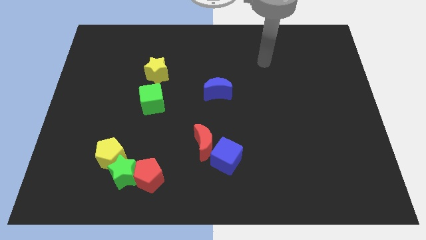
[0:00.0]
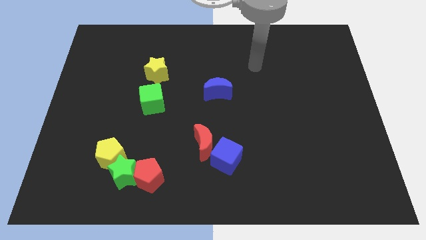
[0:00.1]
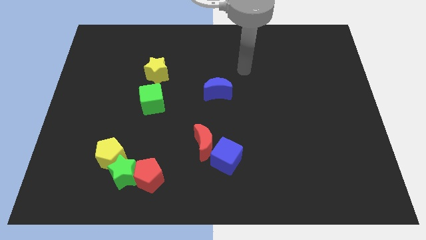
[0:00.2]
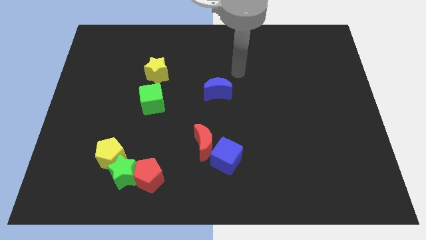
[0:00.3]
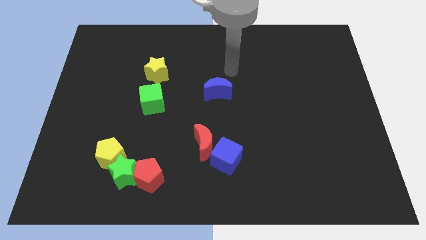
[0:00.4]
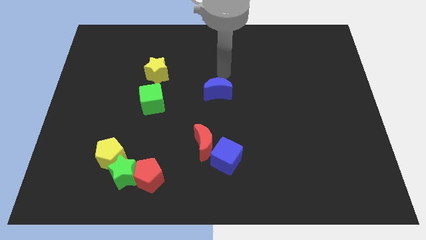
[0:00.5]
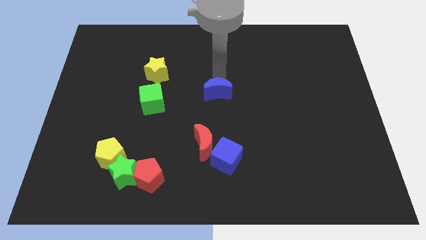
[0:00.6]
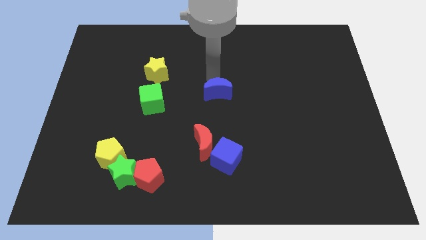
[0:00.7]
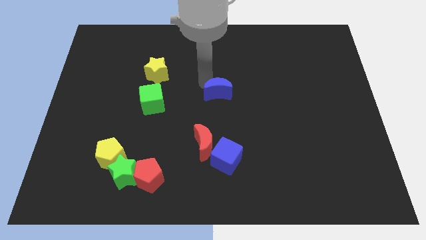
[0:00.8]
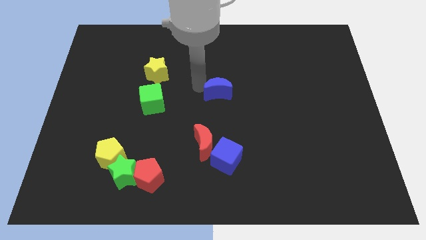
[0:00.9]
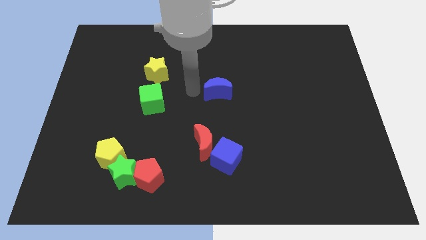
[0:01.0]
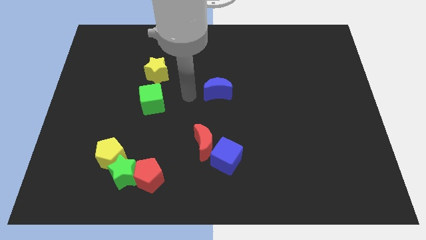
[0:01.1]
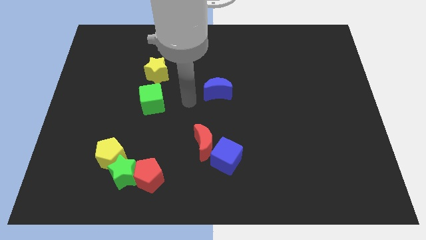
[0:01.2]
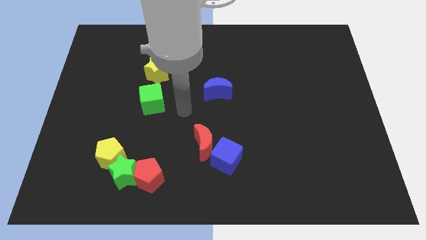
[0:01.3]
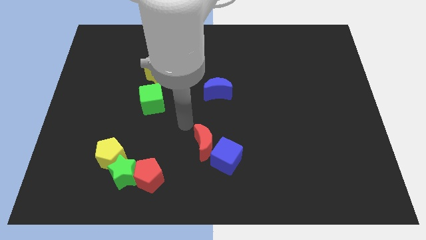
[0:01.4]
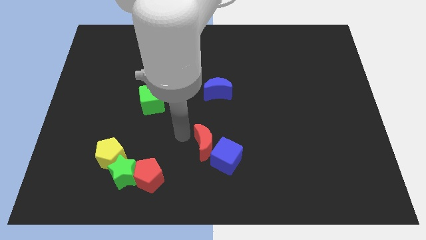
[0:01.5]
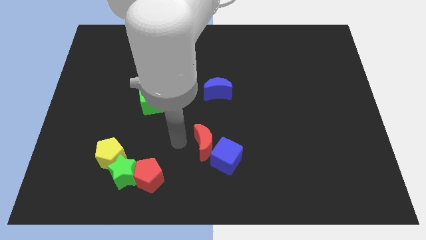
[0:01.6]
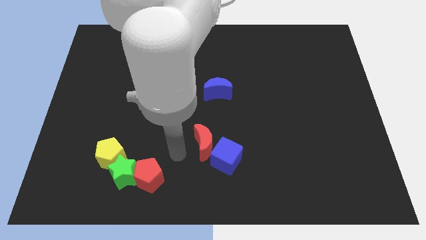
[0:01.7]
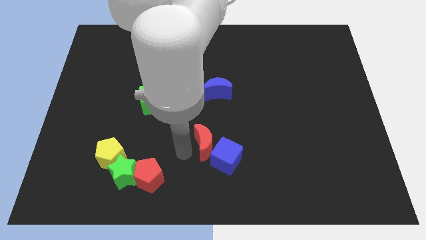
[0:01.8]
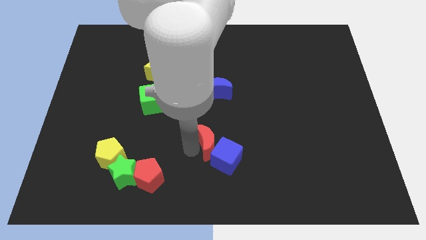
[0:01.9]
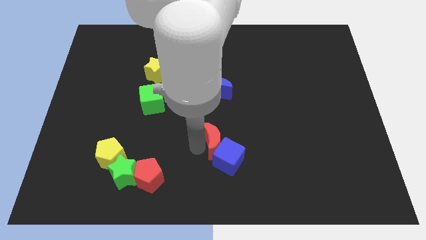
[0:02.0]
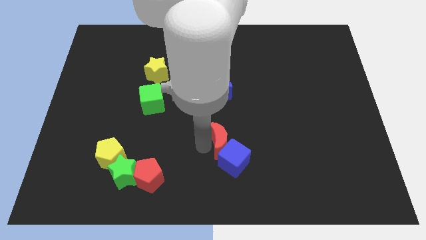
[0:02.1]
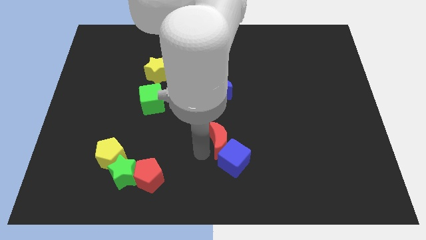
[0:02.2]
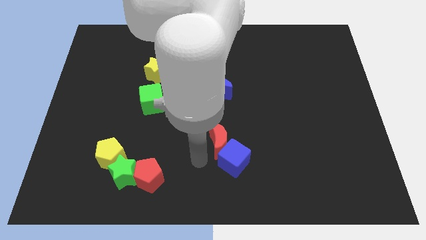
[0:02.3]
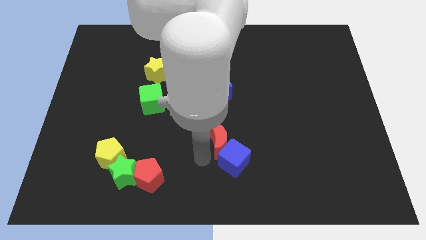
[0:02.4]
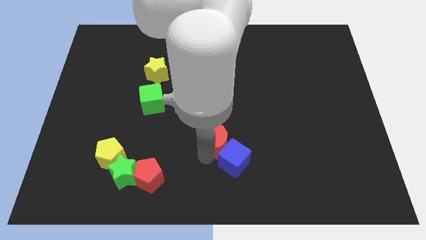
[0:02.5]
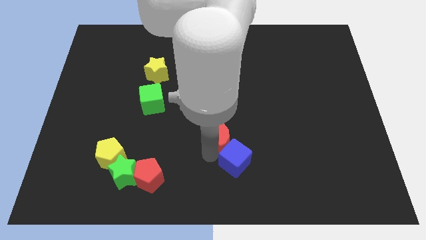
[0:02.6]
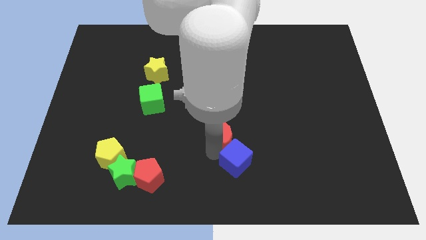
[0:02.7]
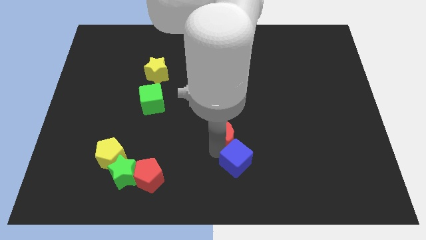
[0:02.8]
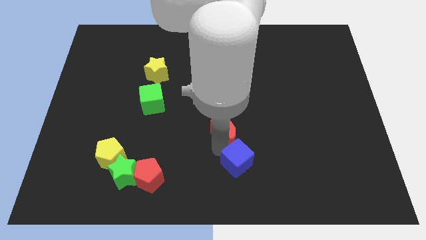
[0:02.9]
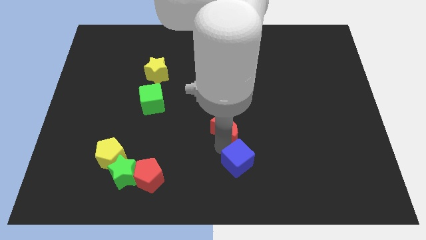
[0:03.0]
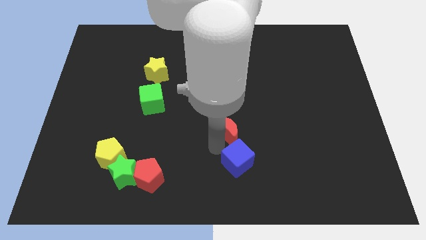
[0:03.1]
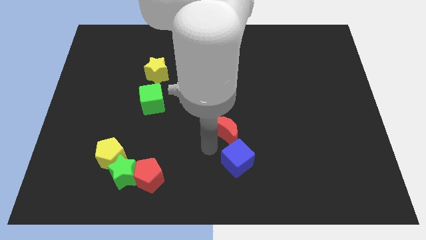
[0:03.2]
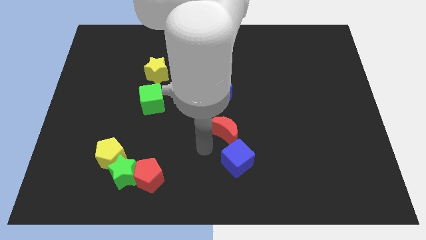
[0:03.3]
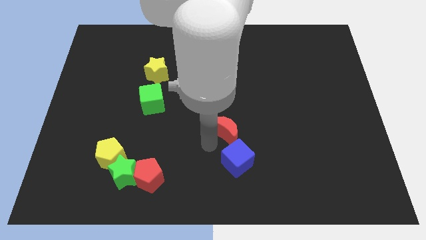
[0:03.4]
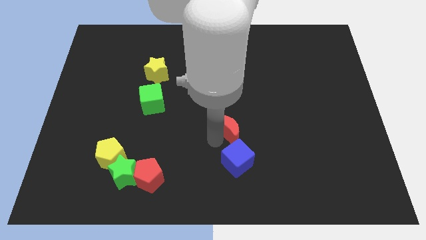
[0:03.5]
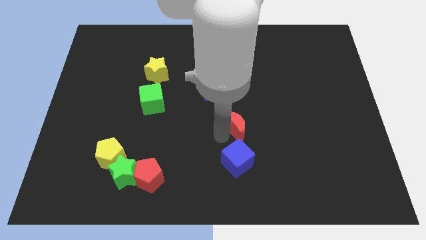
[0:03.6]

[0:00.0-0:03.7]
slightly move the red moon up and to the right

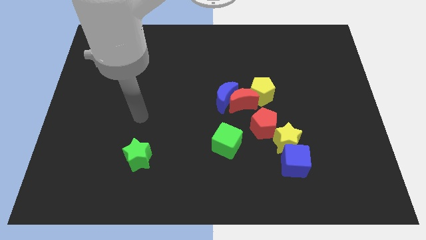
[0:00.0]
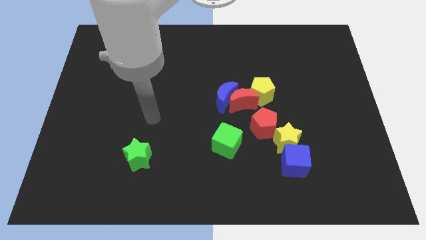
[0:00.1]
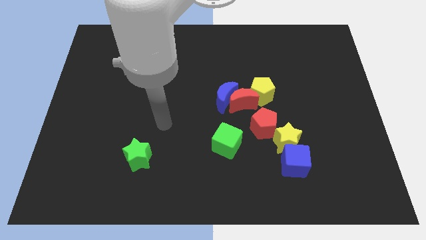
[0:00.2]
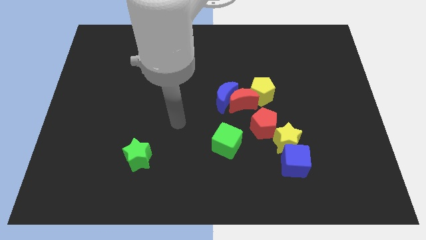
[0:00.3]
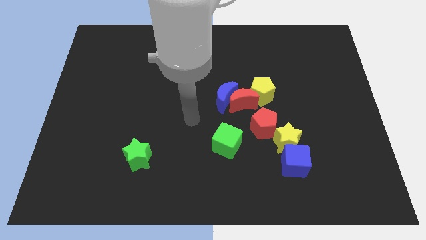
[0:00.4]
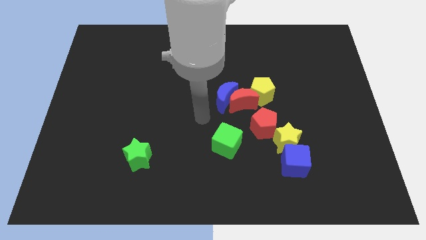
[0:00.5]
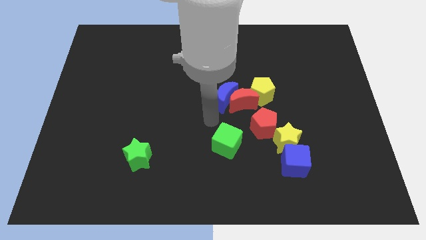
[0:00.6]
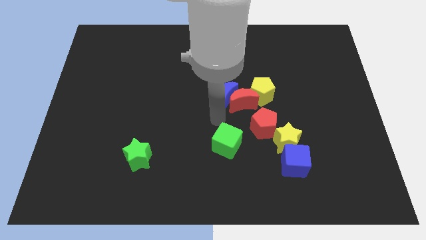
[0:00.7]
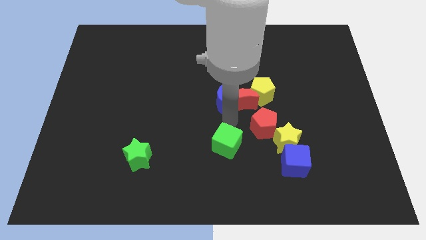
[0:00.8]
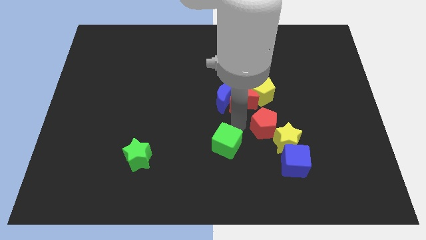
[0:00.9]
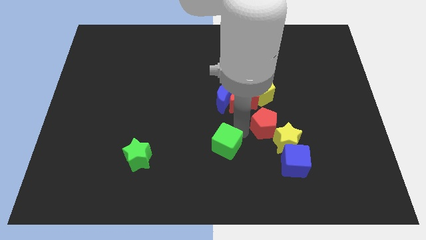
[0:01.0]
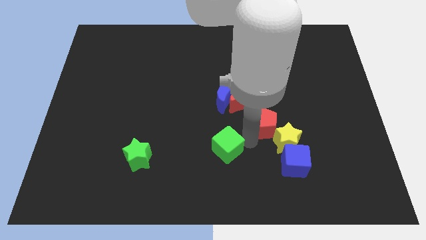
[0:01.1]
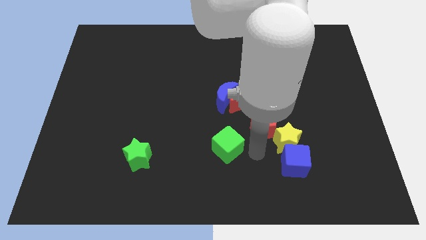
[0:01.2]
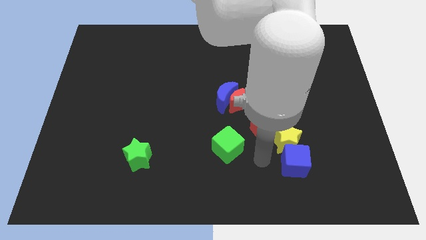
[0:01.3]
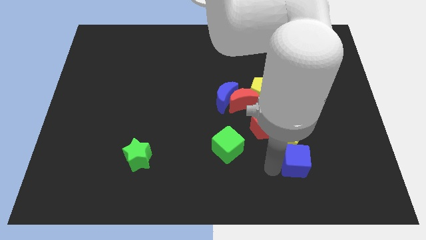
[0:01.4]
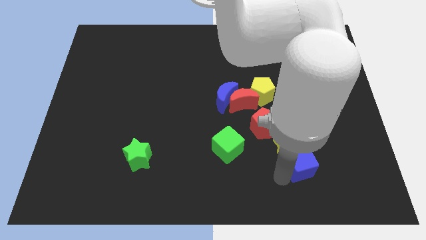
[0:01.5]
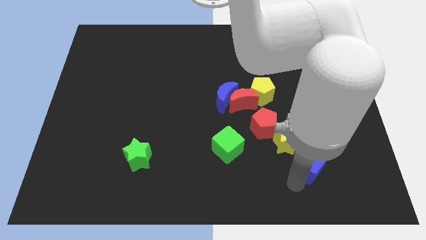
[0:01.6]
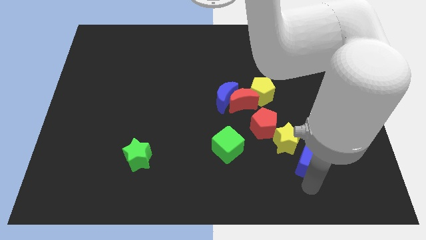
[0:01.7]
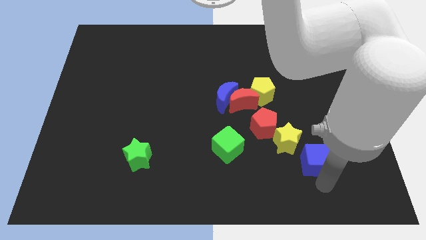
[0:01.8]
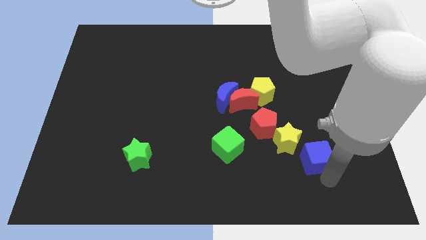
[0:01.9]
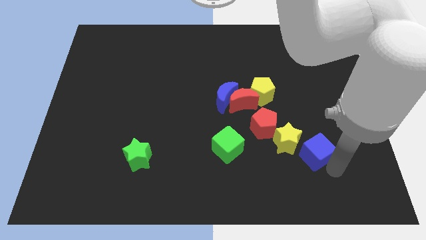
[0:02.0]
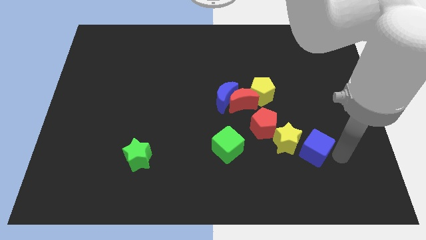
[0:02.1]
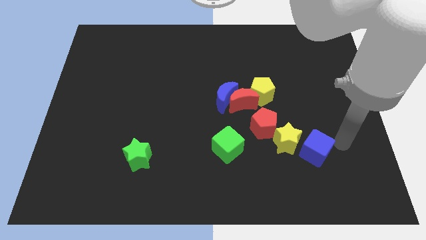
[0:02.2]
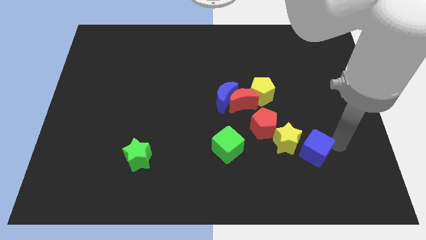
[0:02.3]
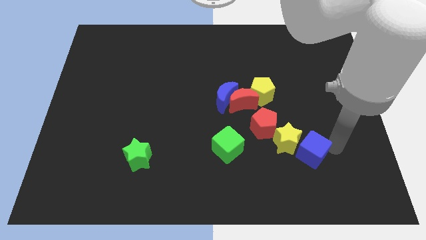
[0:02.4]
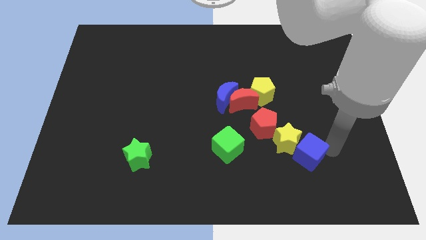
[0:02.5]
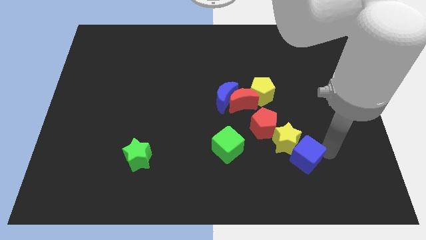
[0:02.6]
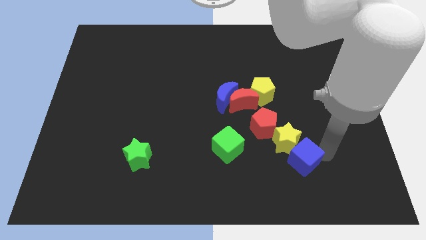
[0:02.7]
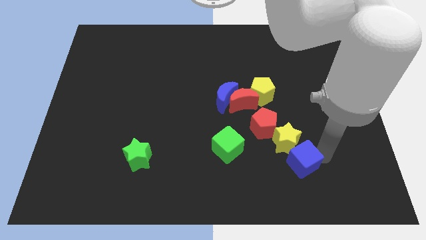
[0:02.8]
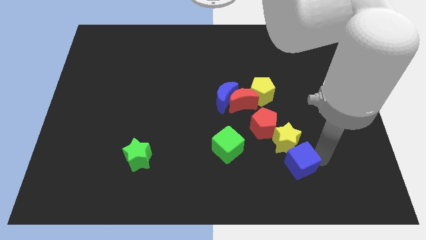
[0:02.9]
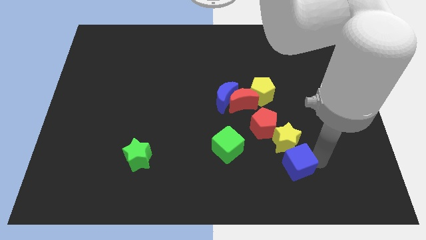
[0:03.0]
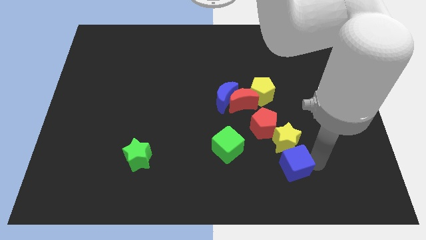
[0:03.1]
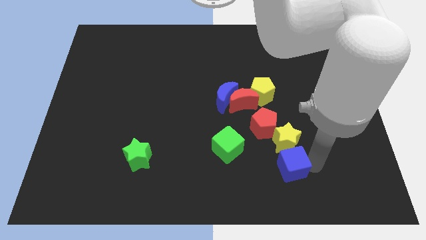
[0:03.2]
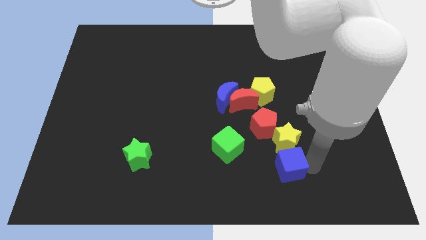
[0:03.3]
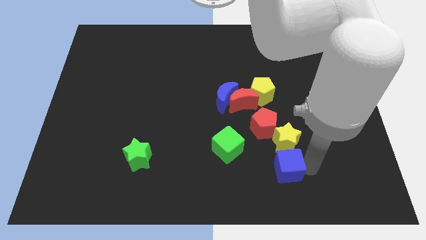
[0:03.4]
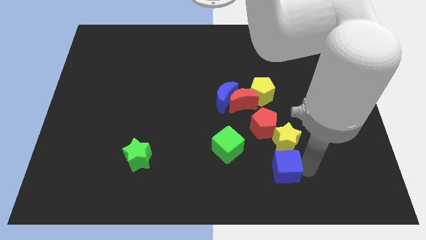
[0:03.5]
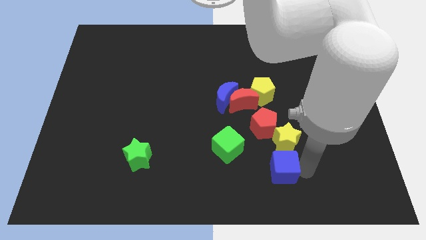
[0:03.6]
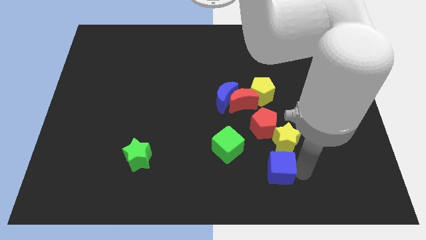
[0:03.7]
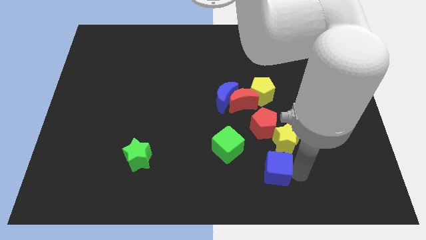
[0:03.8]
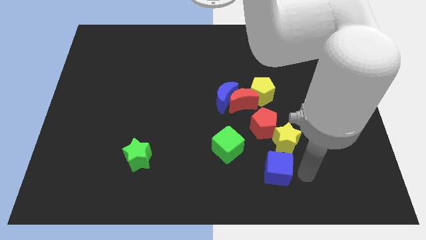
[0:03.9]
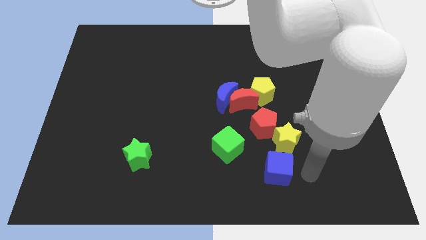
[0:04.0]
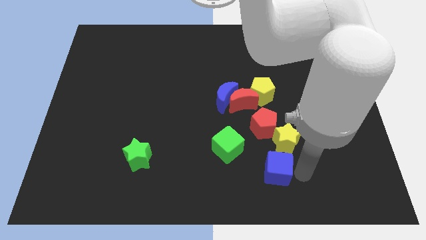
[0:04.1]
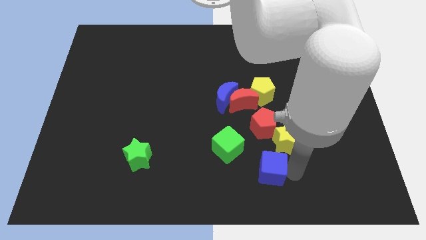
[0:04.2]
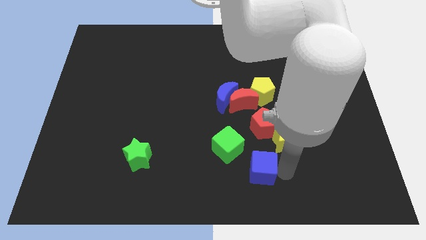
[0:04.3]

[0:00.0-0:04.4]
push the blue cube a bit left

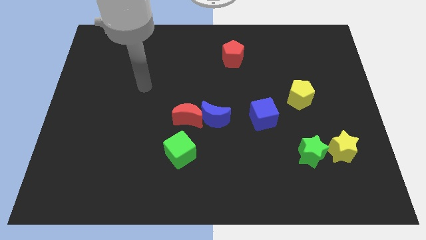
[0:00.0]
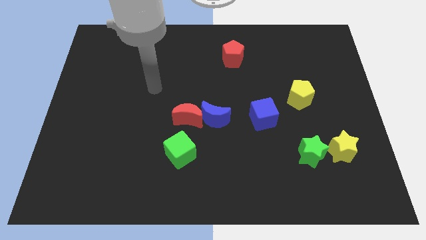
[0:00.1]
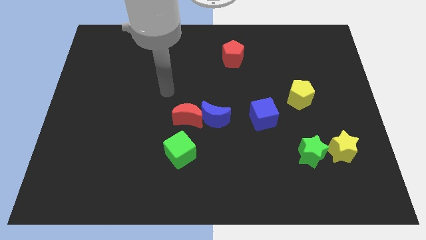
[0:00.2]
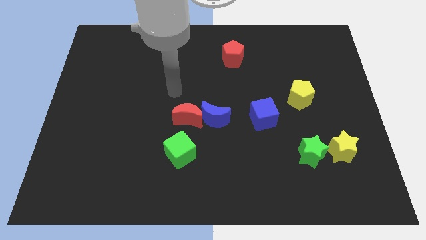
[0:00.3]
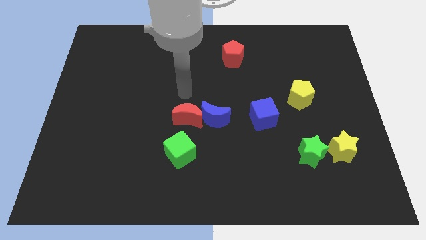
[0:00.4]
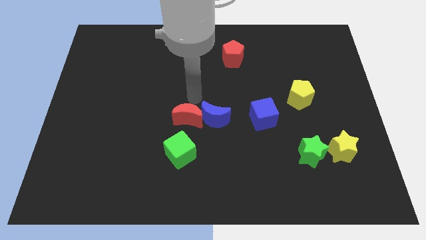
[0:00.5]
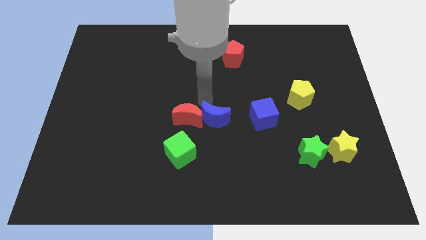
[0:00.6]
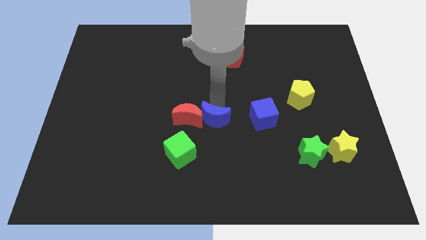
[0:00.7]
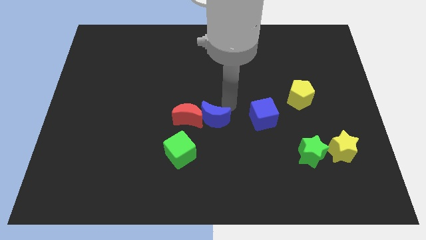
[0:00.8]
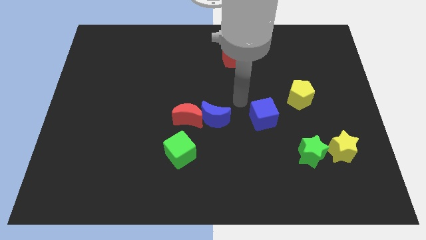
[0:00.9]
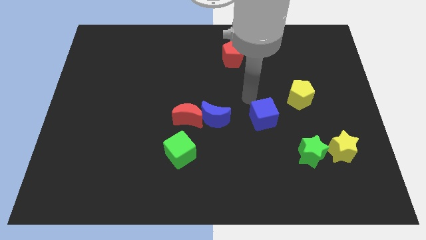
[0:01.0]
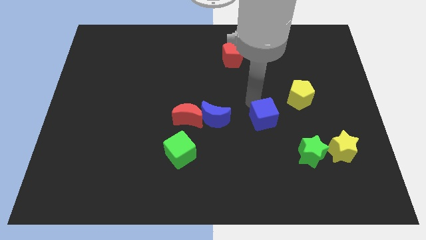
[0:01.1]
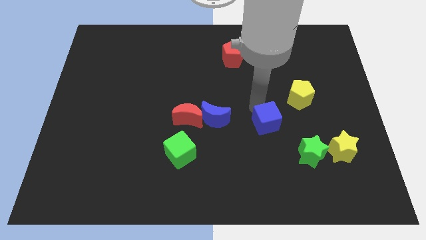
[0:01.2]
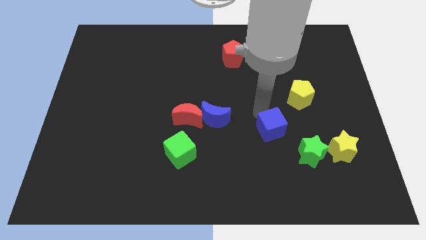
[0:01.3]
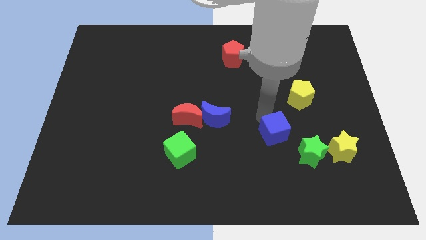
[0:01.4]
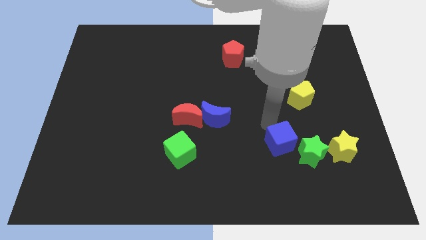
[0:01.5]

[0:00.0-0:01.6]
move the blue cube somewhat diagonally downwards and to the right
